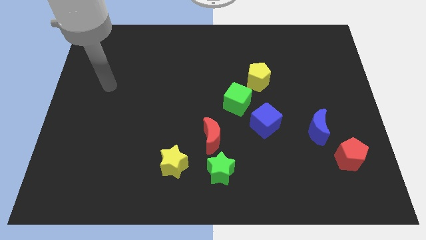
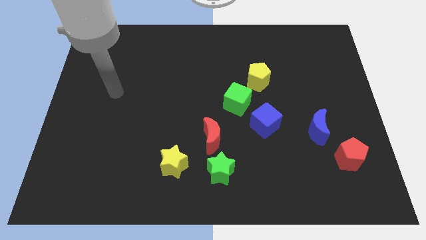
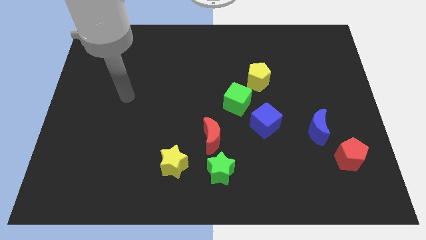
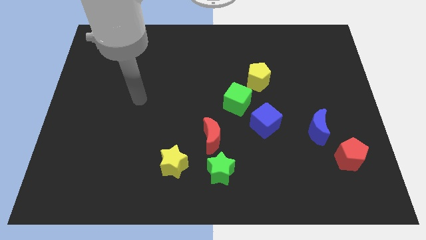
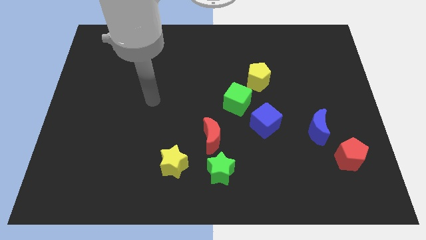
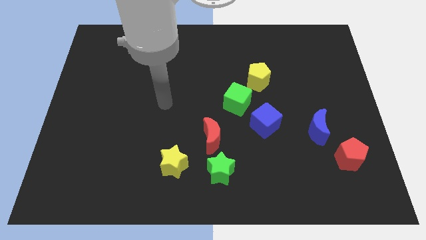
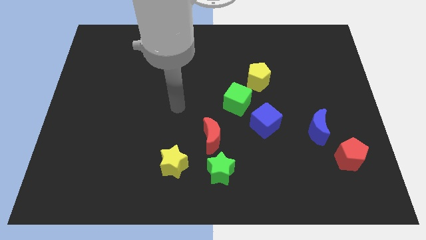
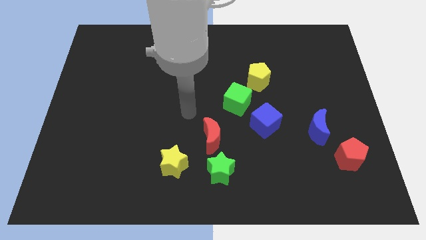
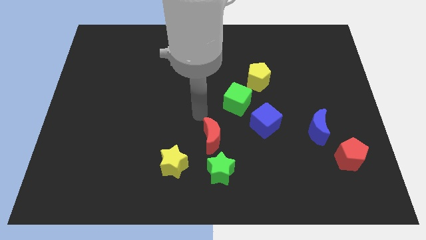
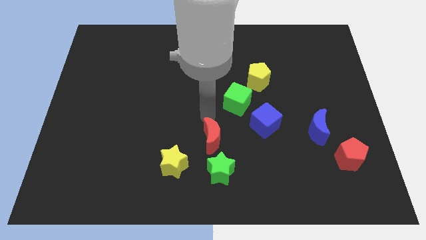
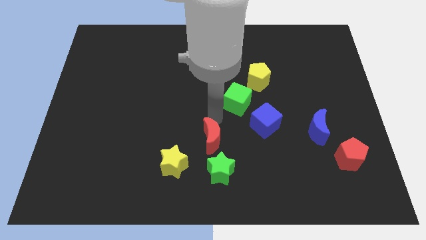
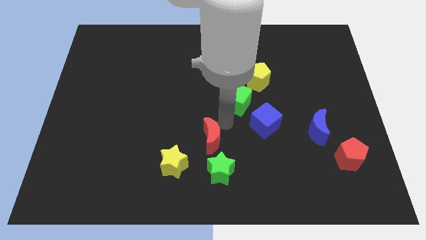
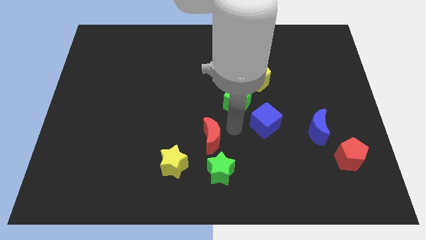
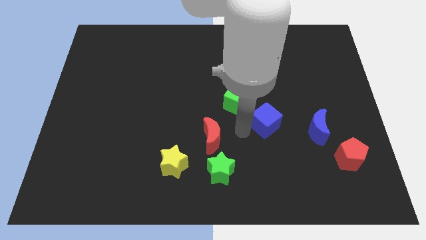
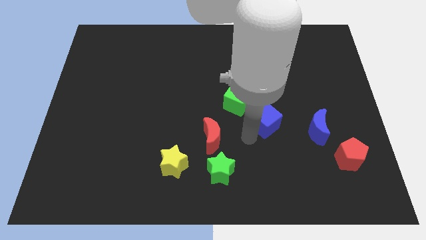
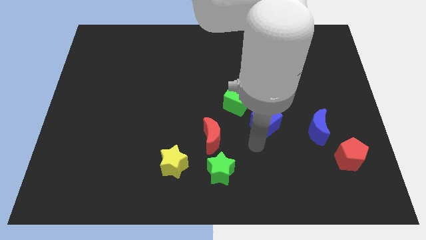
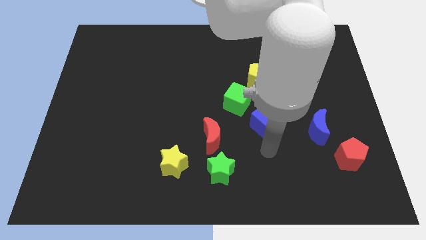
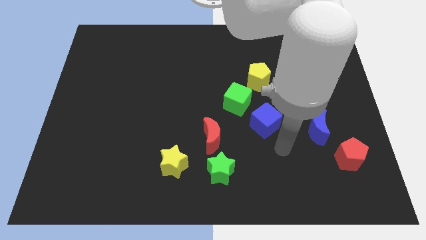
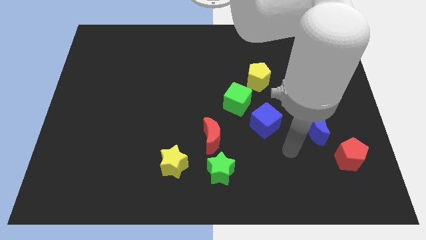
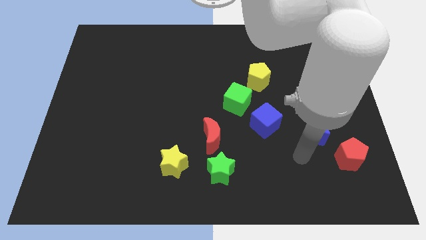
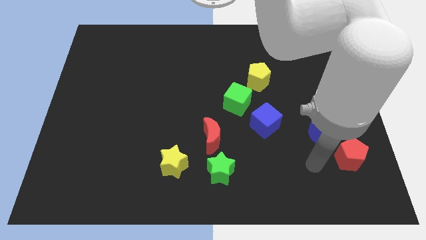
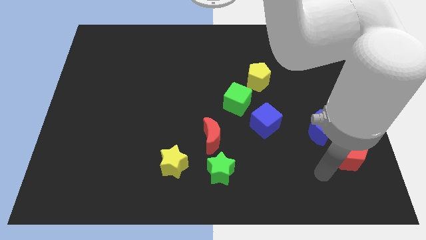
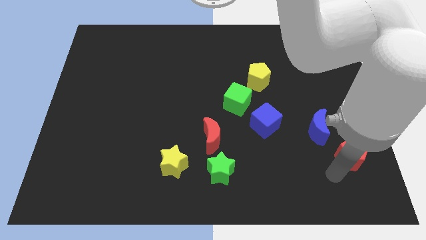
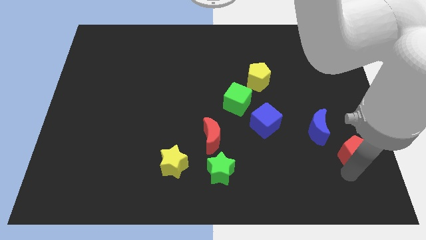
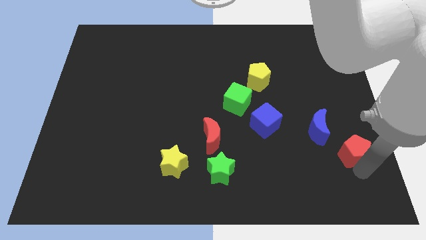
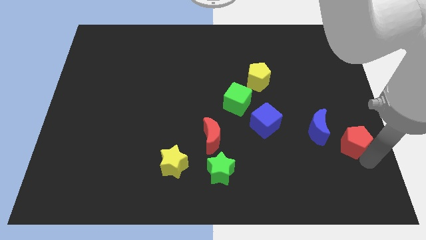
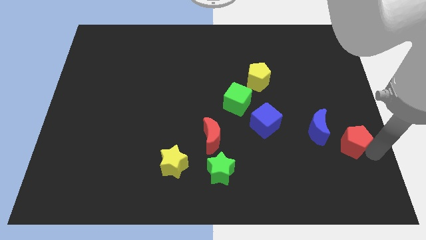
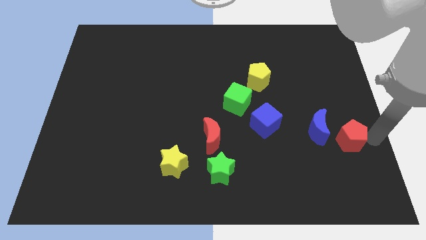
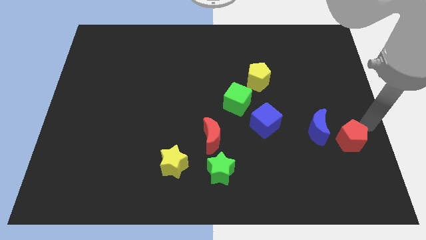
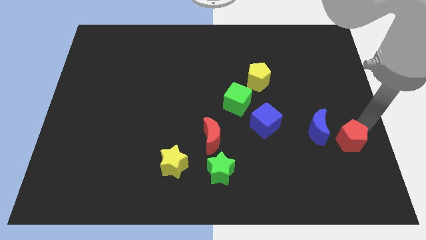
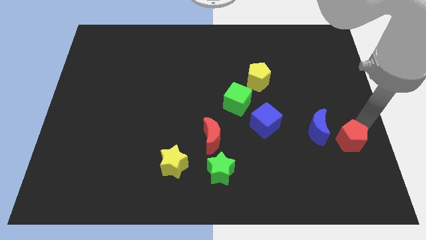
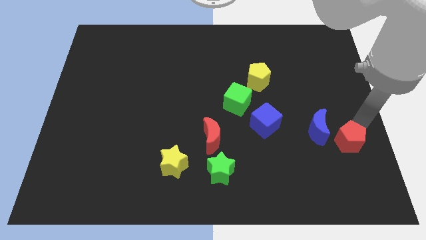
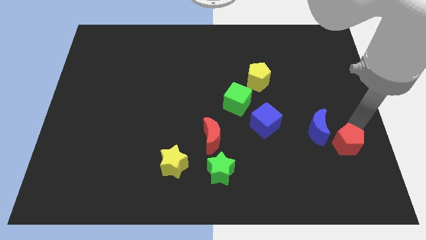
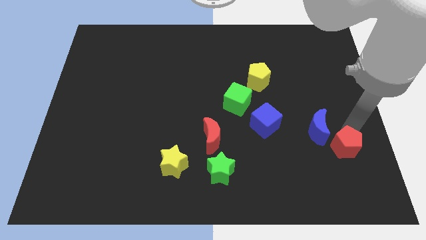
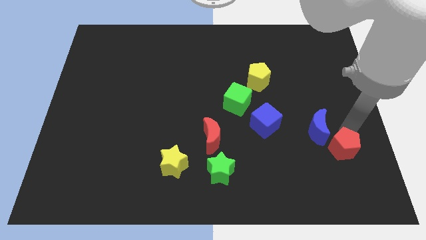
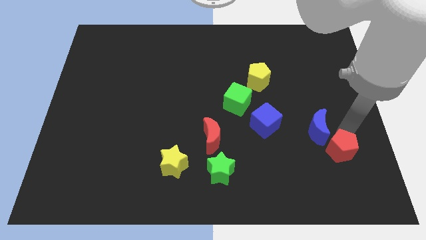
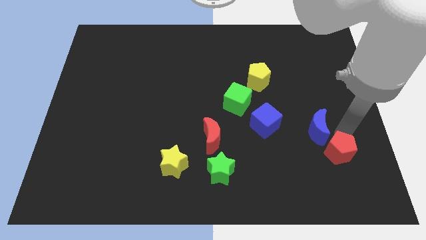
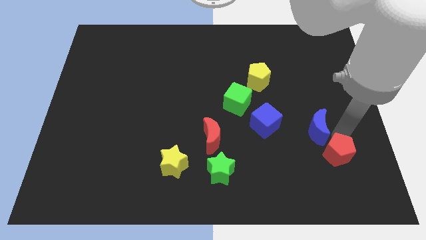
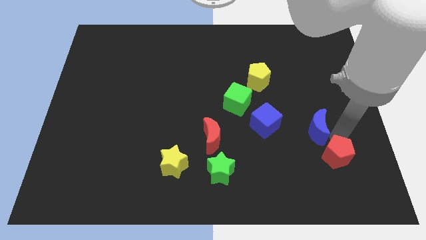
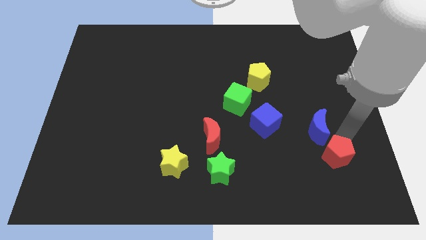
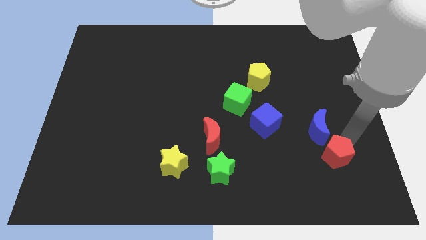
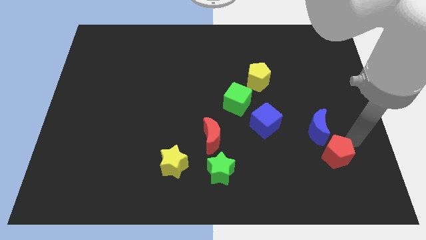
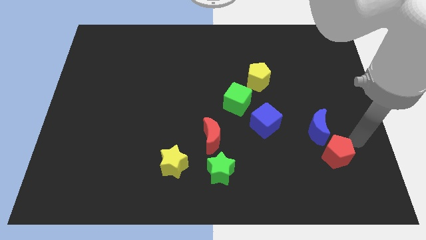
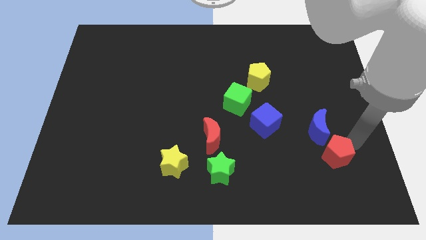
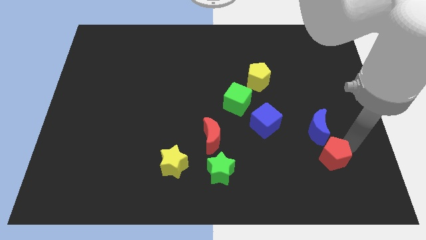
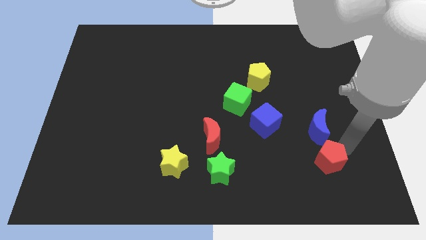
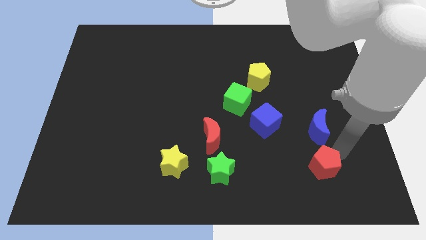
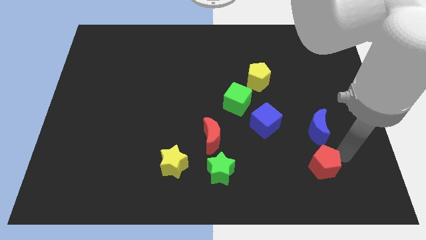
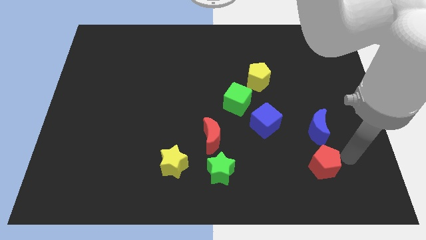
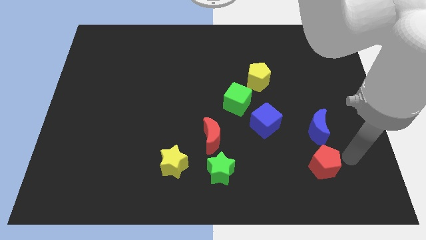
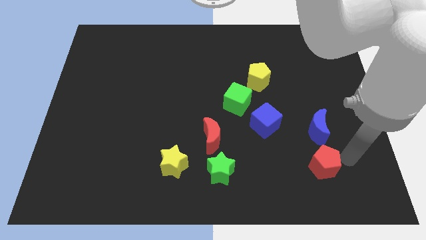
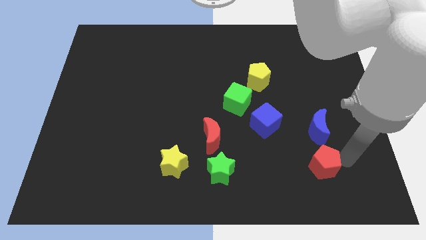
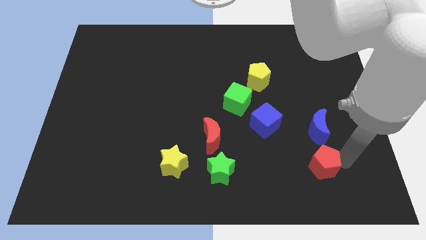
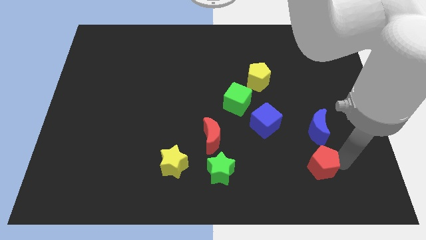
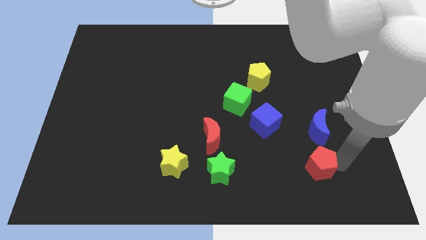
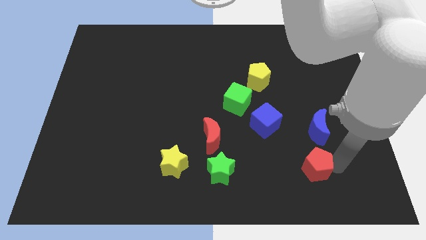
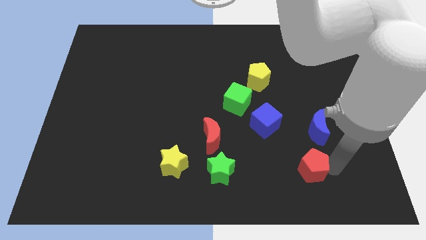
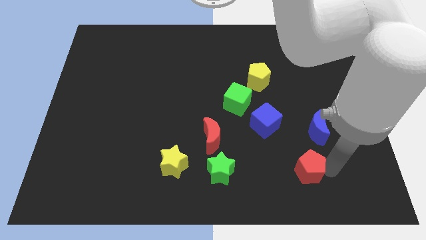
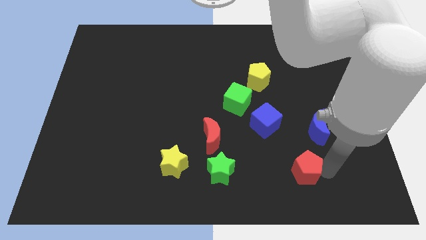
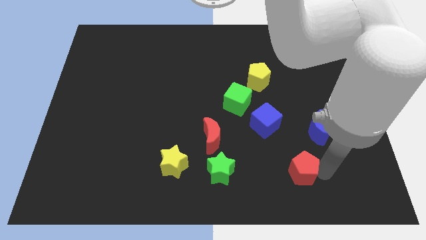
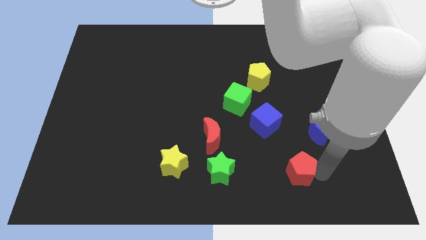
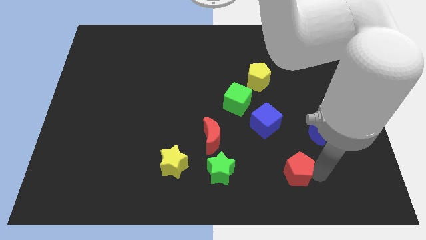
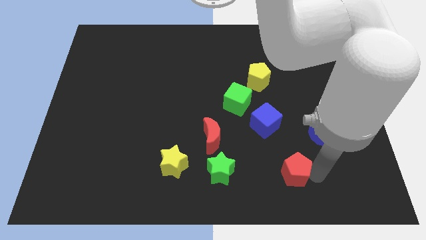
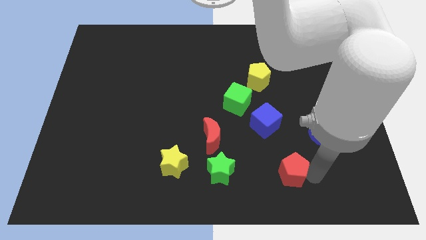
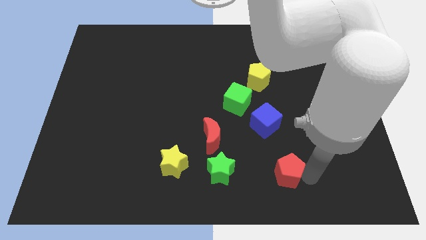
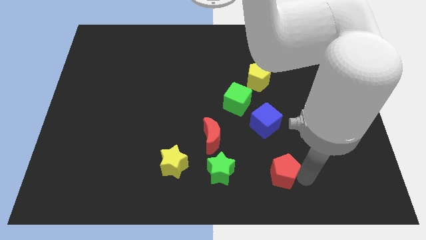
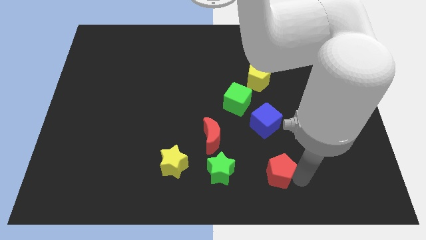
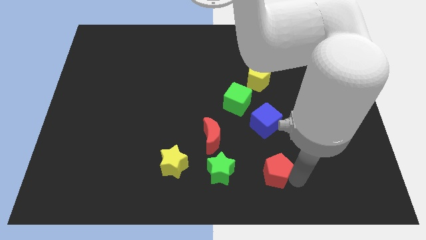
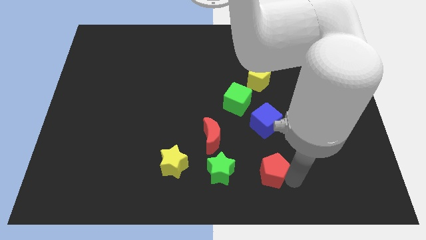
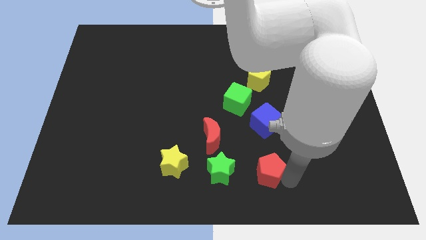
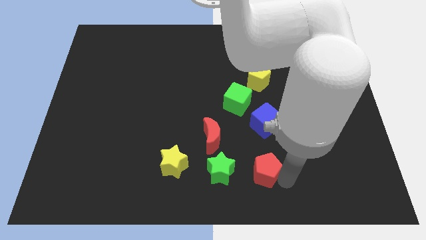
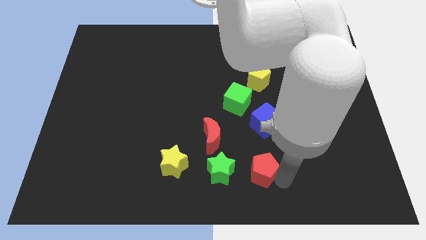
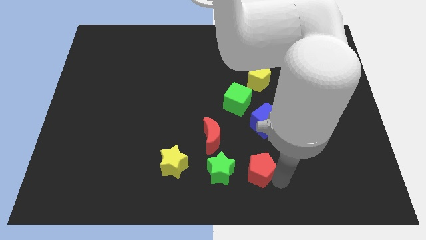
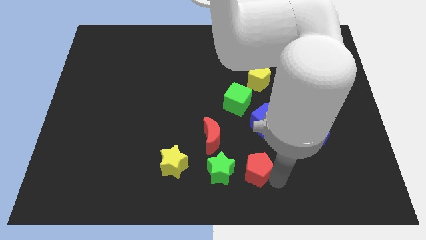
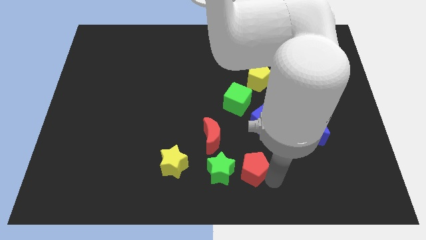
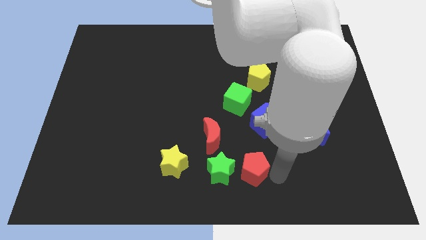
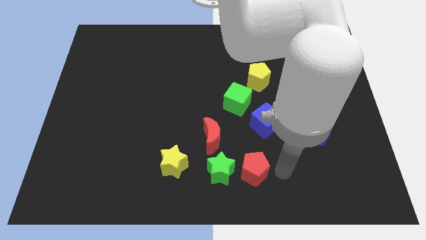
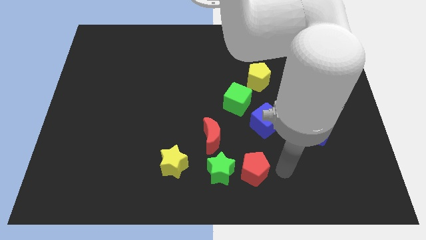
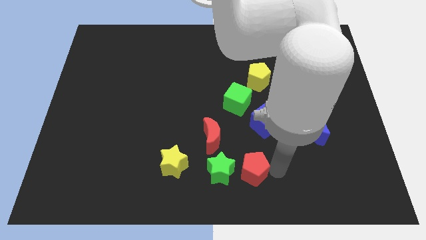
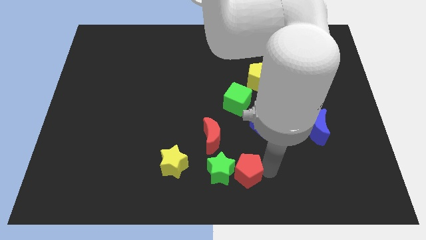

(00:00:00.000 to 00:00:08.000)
put the red pentagon to the green star
